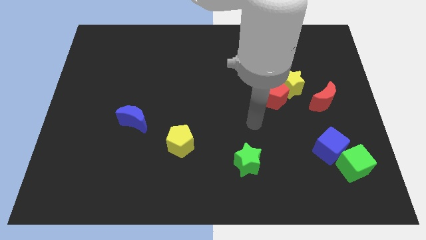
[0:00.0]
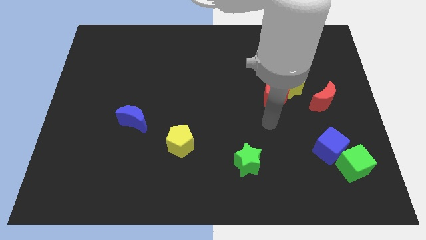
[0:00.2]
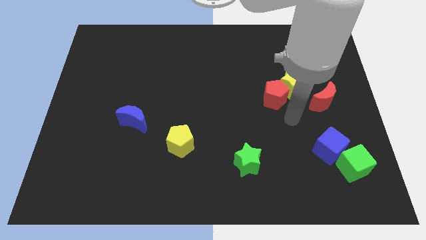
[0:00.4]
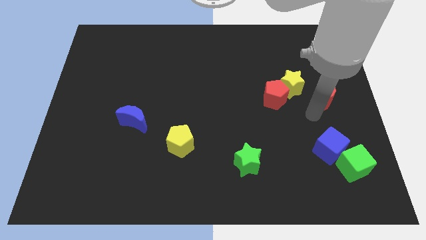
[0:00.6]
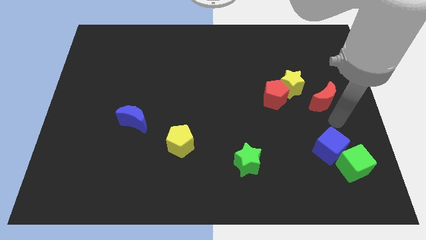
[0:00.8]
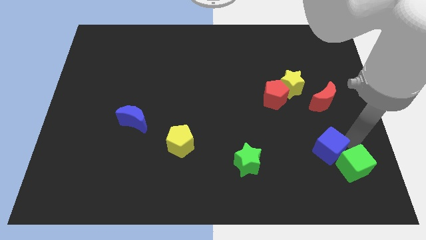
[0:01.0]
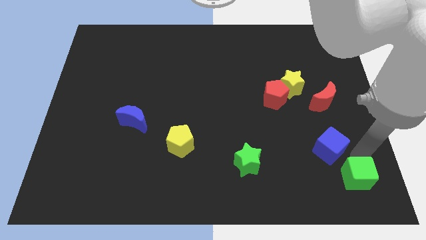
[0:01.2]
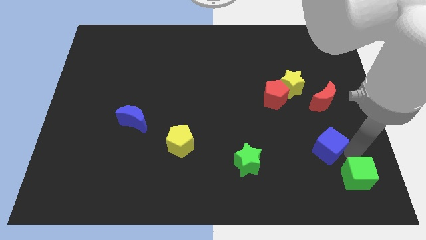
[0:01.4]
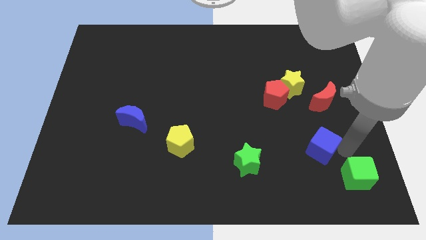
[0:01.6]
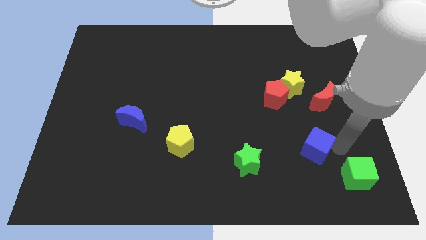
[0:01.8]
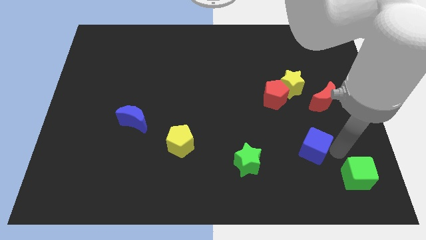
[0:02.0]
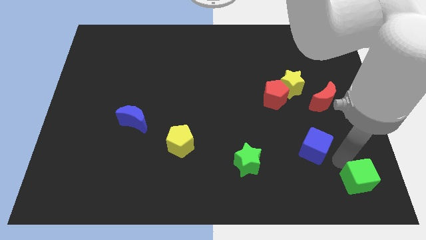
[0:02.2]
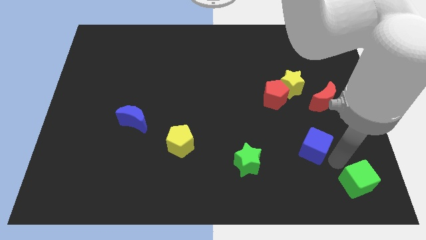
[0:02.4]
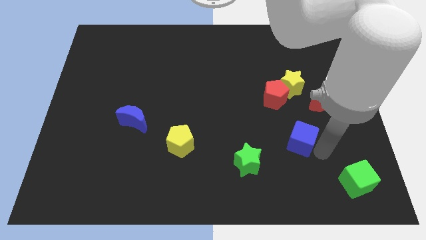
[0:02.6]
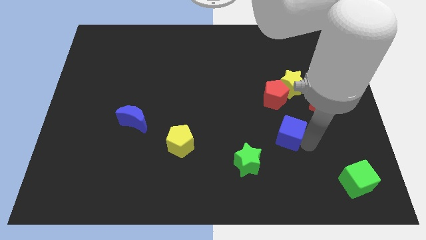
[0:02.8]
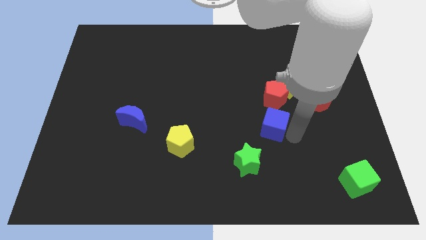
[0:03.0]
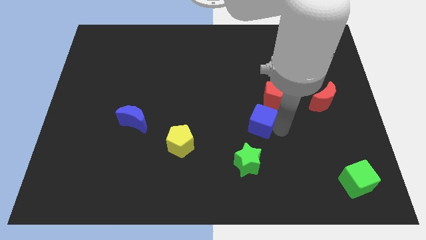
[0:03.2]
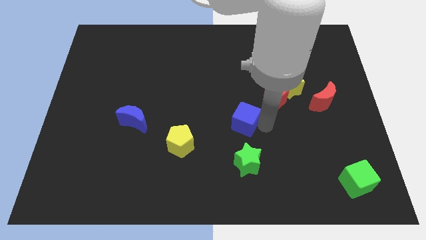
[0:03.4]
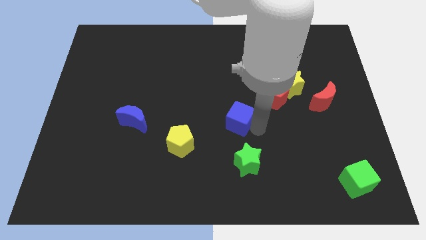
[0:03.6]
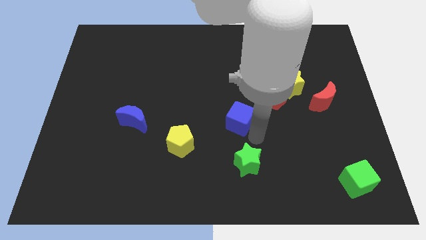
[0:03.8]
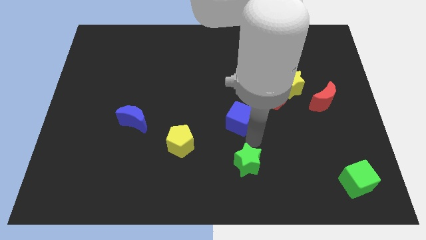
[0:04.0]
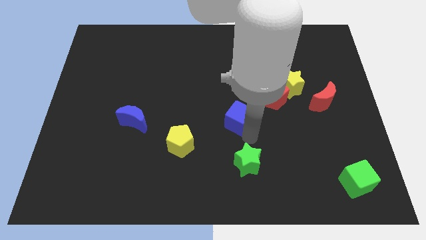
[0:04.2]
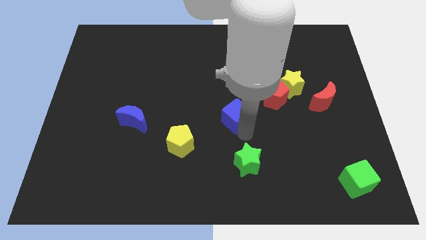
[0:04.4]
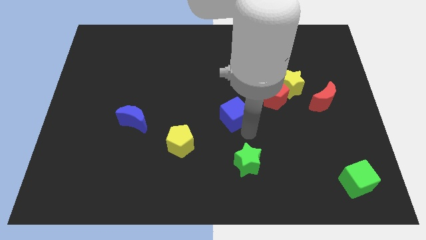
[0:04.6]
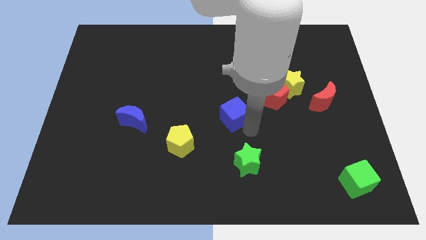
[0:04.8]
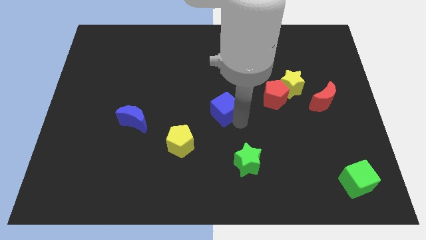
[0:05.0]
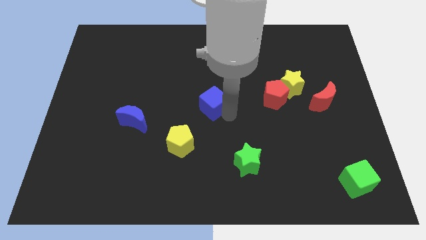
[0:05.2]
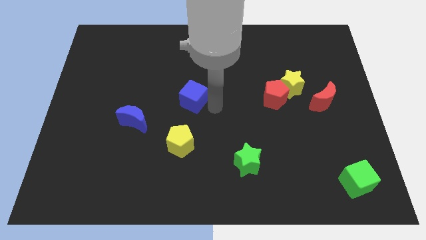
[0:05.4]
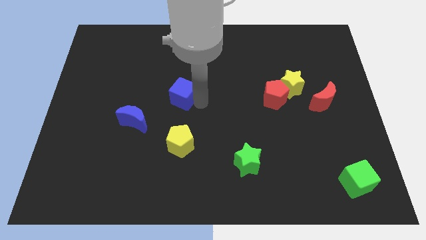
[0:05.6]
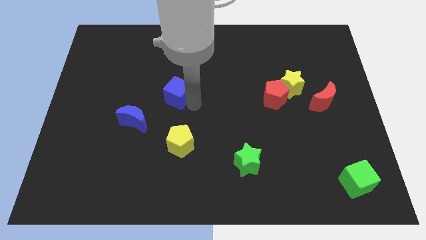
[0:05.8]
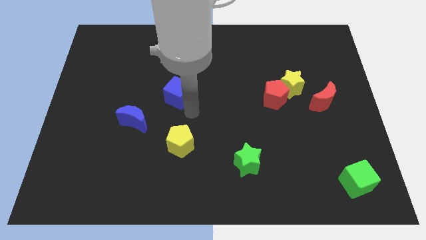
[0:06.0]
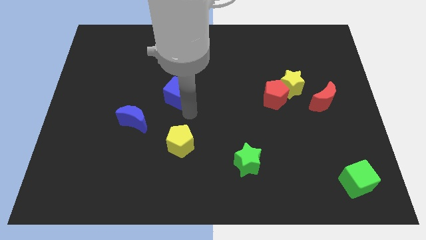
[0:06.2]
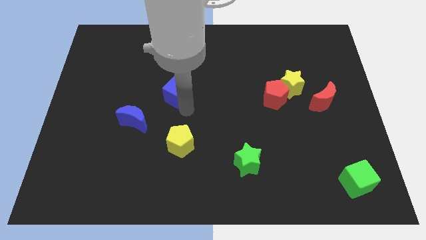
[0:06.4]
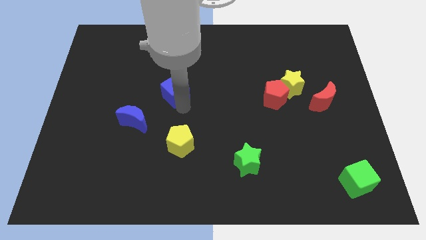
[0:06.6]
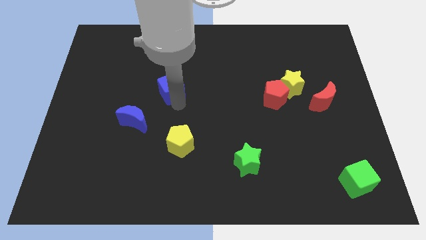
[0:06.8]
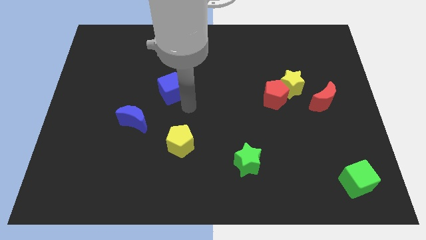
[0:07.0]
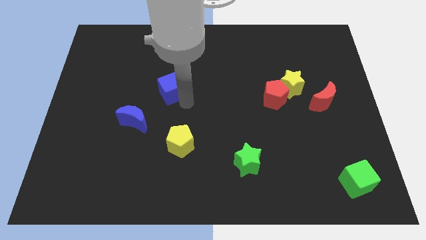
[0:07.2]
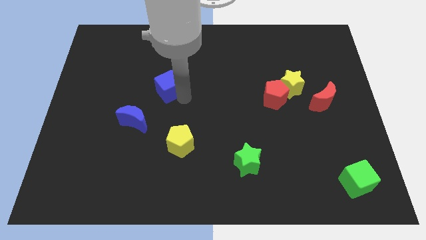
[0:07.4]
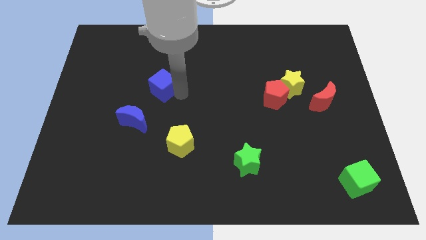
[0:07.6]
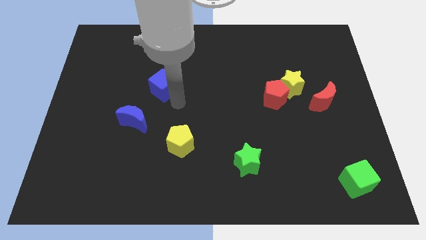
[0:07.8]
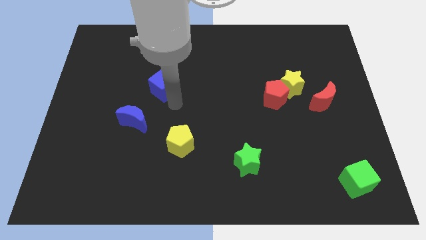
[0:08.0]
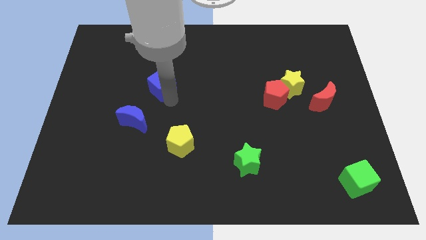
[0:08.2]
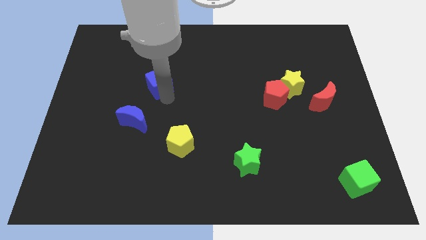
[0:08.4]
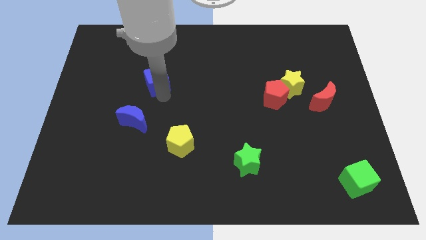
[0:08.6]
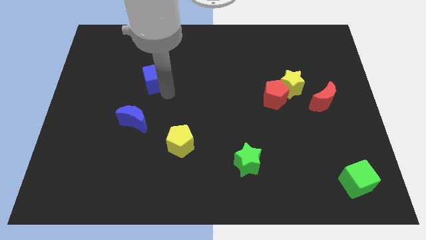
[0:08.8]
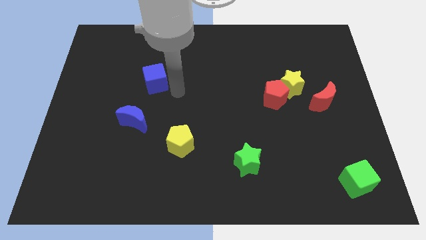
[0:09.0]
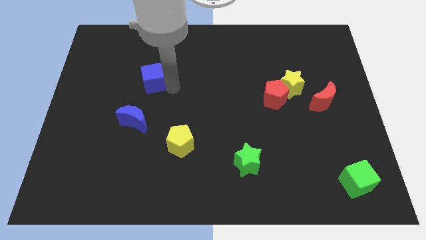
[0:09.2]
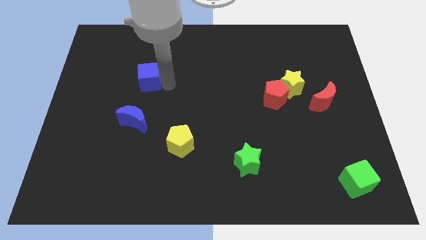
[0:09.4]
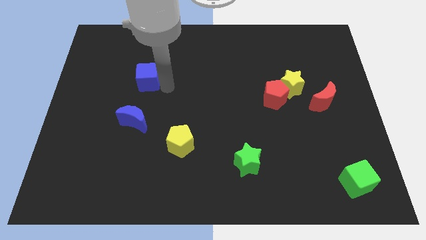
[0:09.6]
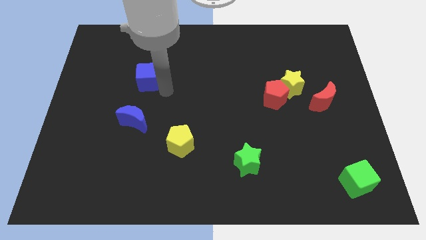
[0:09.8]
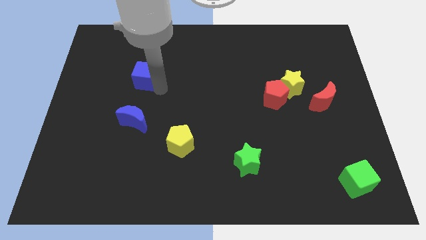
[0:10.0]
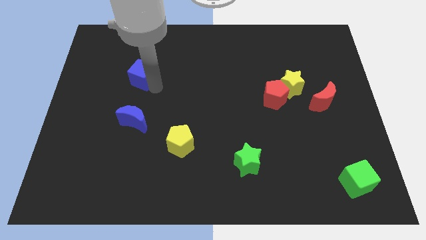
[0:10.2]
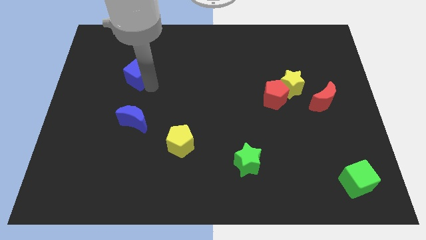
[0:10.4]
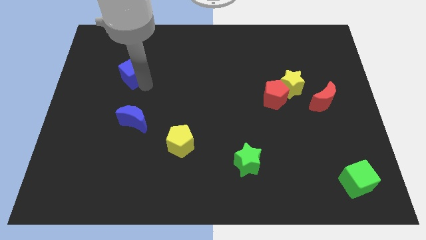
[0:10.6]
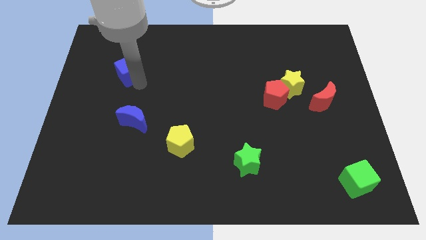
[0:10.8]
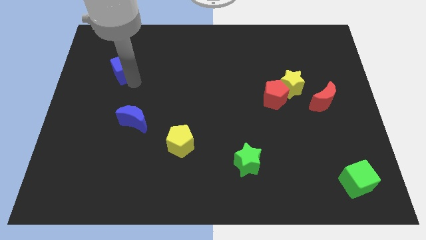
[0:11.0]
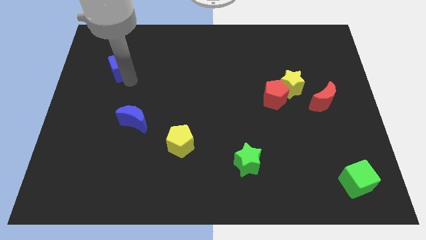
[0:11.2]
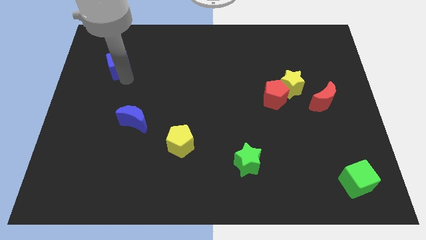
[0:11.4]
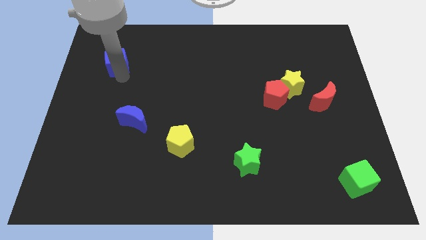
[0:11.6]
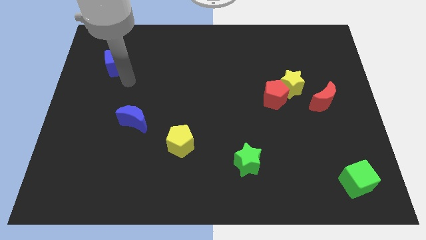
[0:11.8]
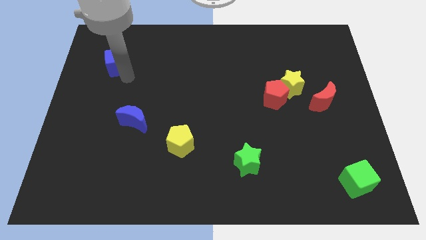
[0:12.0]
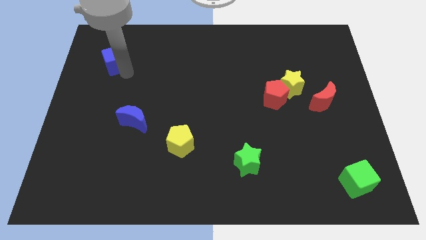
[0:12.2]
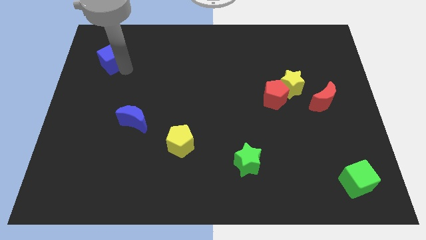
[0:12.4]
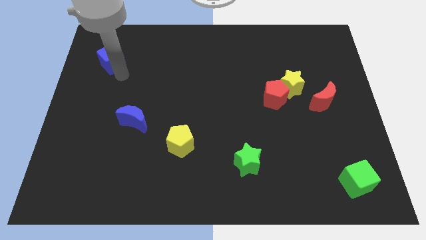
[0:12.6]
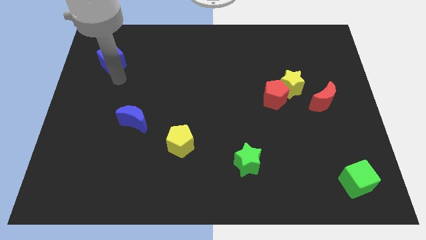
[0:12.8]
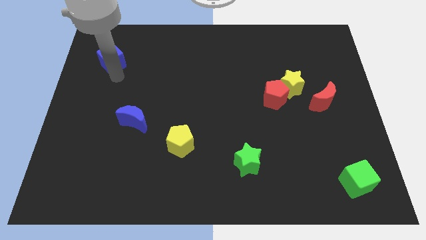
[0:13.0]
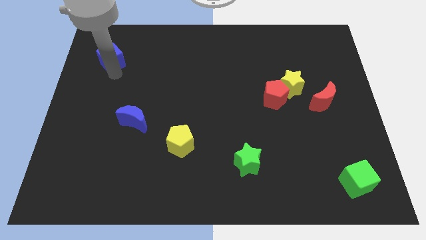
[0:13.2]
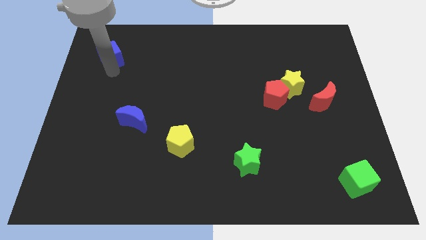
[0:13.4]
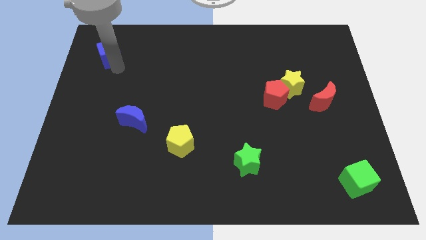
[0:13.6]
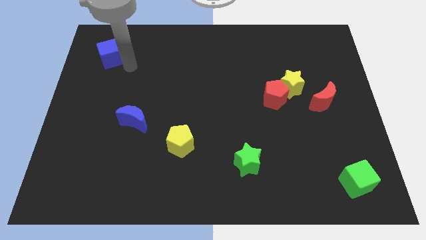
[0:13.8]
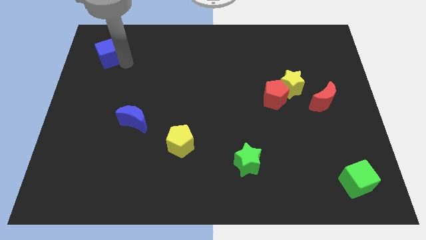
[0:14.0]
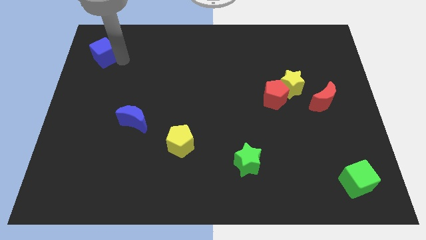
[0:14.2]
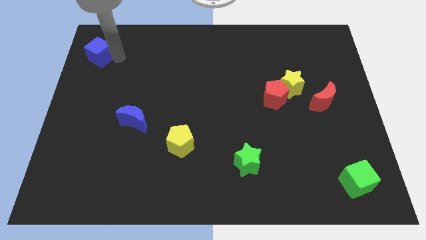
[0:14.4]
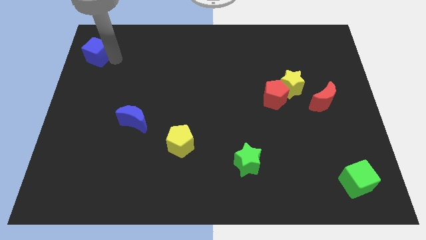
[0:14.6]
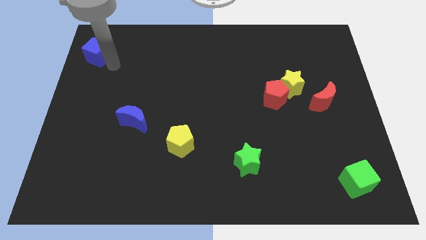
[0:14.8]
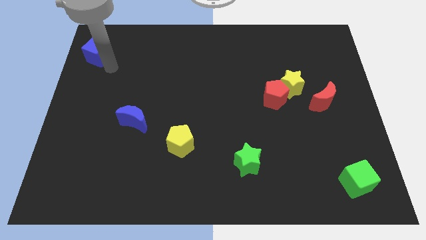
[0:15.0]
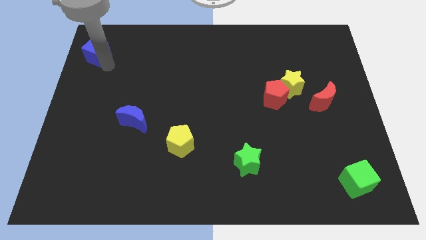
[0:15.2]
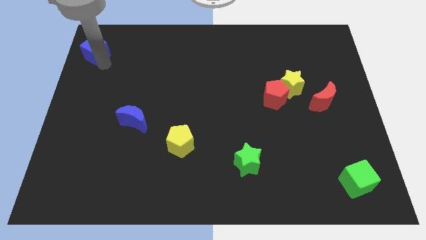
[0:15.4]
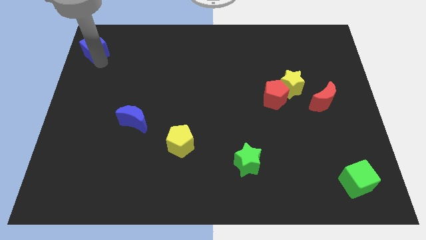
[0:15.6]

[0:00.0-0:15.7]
move the blue cube to the top left corner
